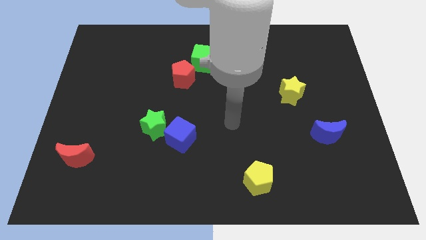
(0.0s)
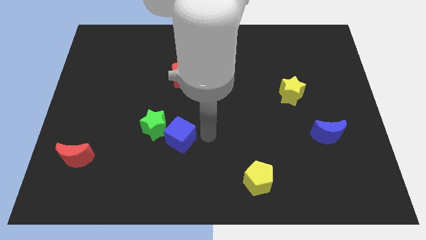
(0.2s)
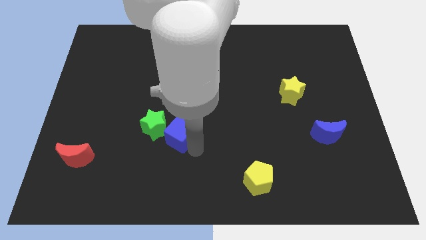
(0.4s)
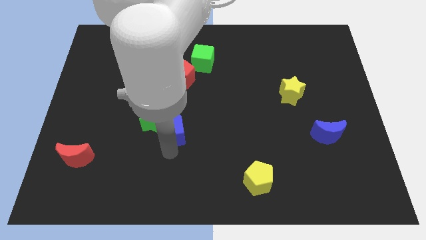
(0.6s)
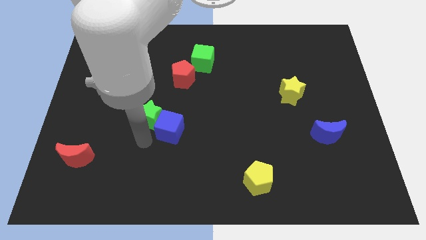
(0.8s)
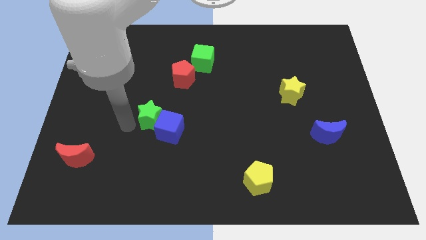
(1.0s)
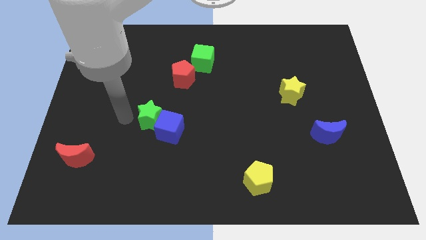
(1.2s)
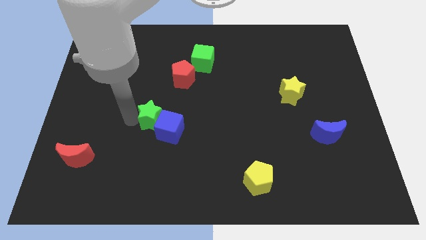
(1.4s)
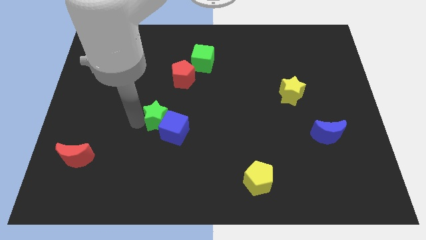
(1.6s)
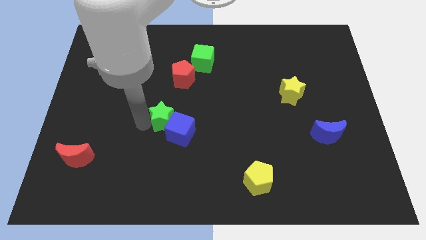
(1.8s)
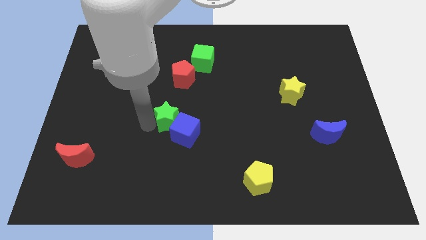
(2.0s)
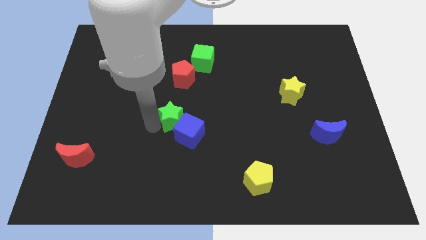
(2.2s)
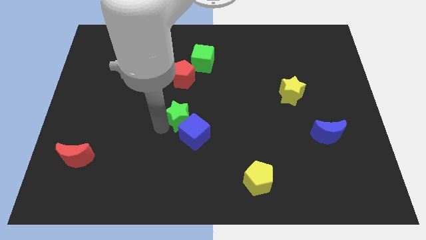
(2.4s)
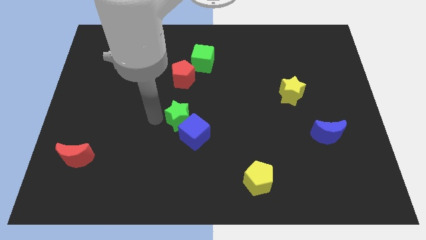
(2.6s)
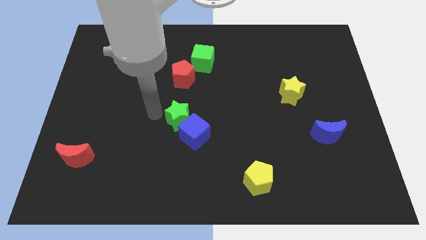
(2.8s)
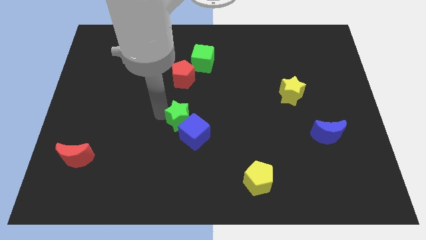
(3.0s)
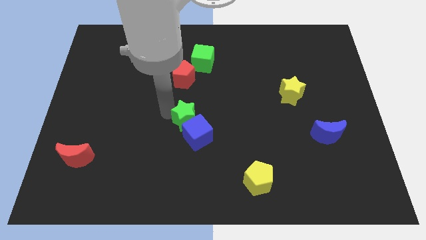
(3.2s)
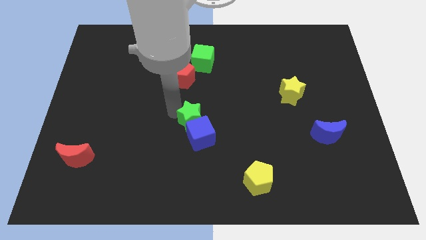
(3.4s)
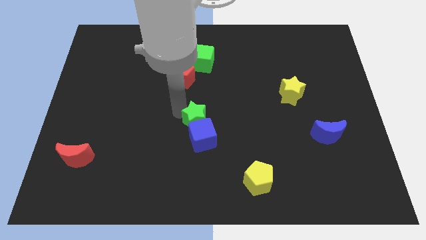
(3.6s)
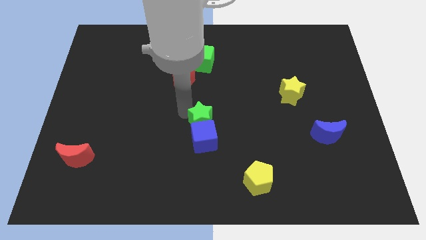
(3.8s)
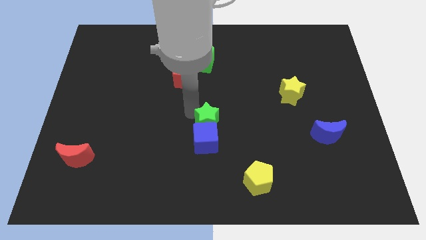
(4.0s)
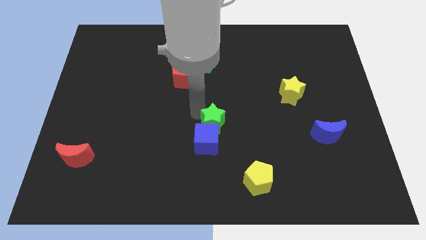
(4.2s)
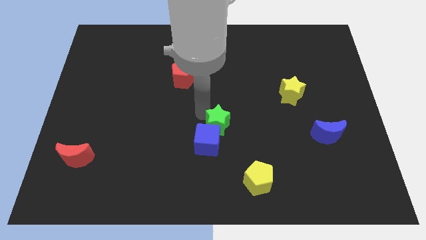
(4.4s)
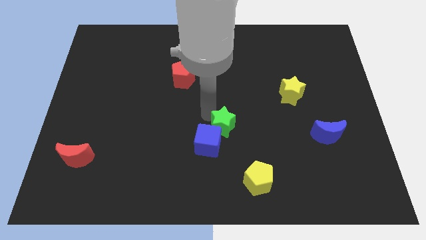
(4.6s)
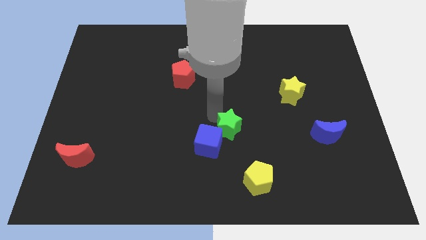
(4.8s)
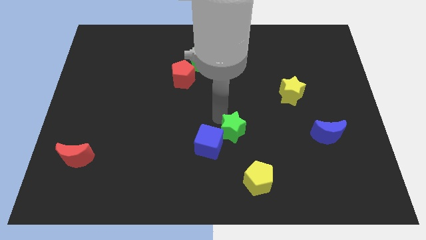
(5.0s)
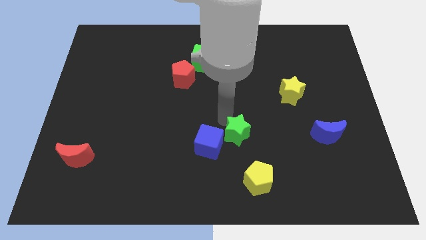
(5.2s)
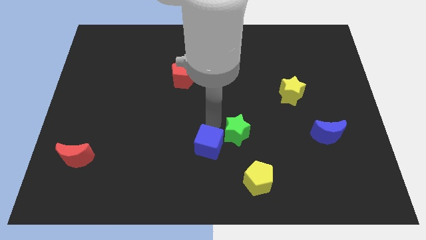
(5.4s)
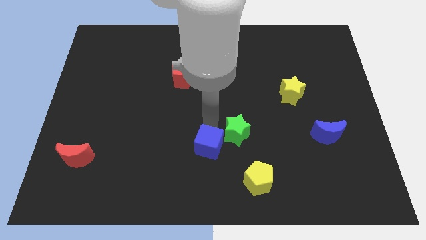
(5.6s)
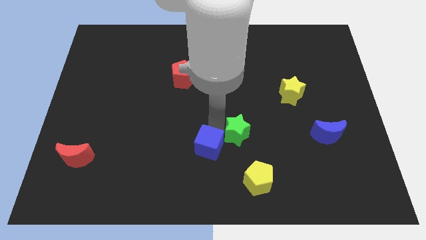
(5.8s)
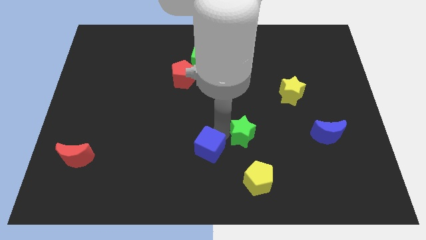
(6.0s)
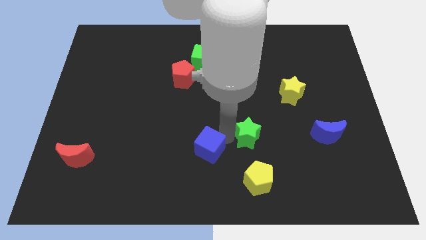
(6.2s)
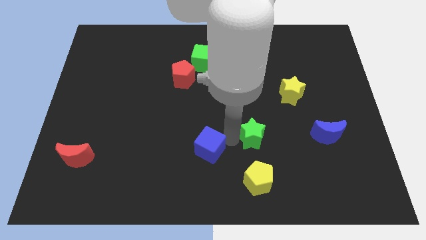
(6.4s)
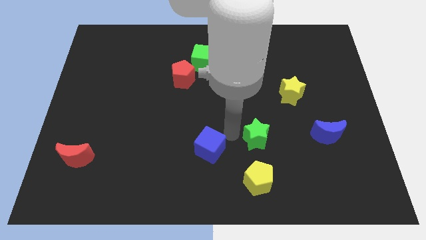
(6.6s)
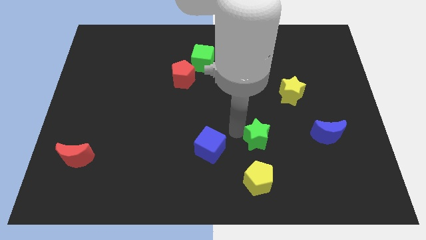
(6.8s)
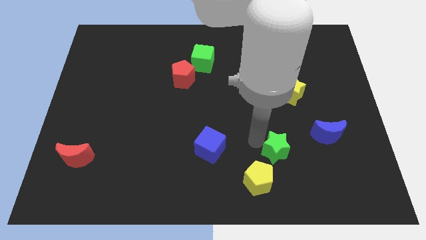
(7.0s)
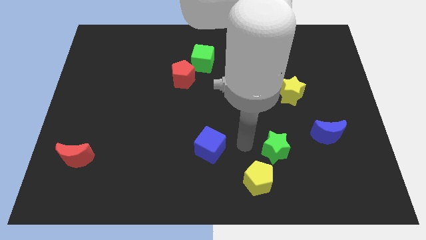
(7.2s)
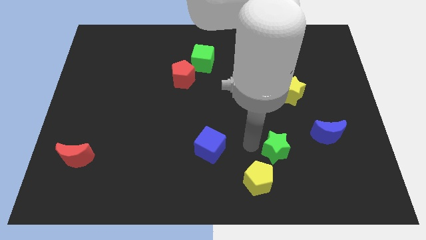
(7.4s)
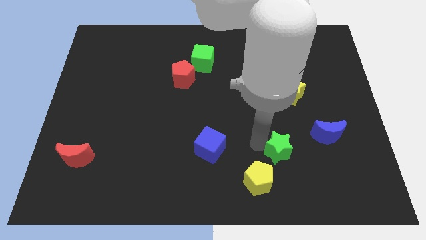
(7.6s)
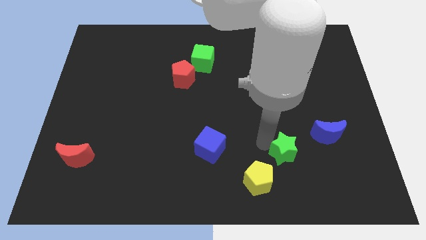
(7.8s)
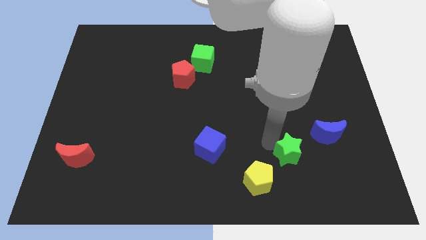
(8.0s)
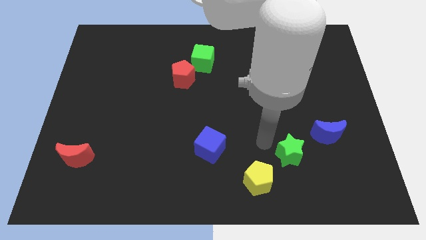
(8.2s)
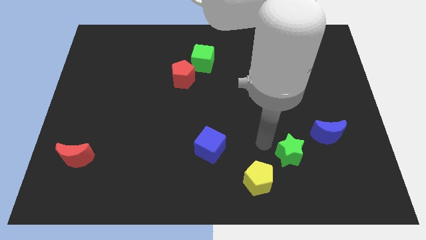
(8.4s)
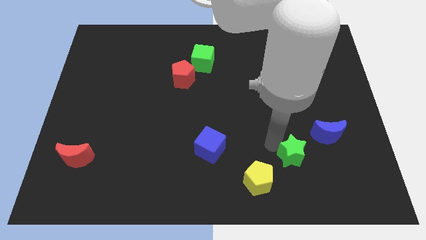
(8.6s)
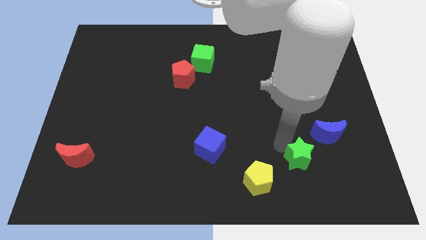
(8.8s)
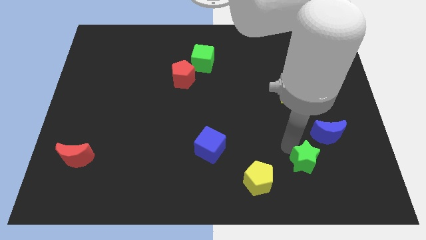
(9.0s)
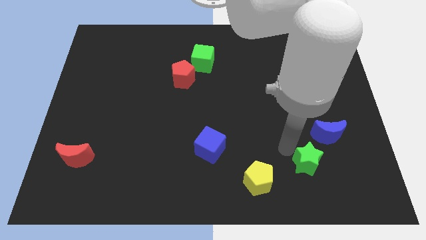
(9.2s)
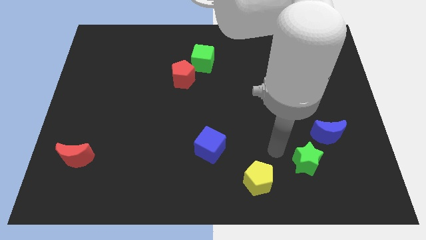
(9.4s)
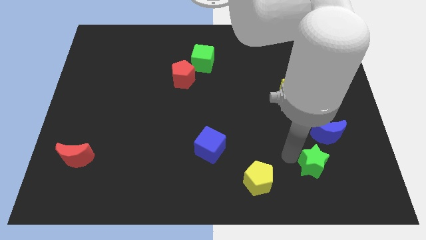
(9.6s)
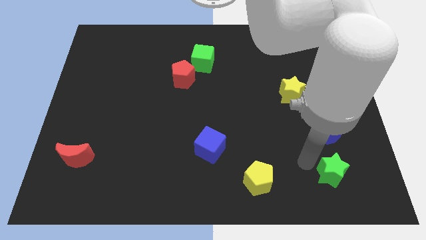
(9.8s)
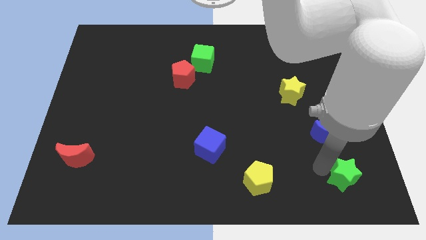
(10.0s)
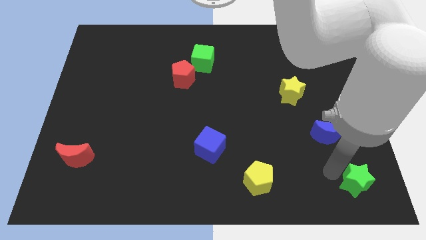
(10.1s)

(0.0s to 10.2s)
move the green star to the bottom right corner

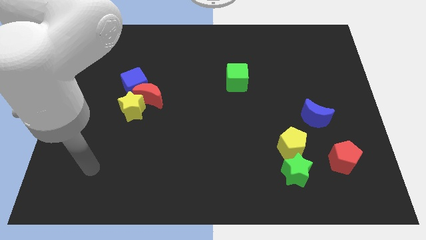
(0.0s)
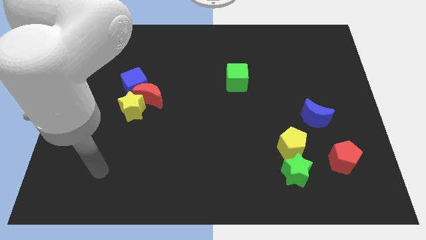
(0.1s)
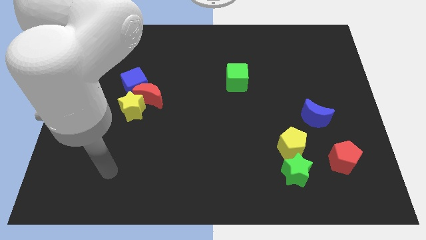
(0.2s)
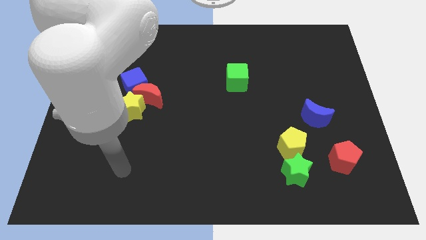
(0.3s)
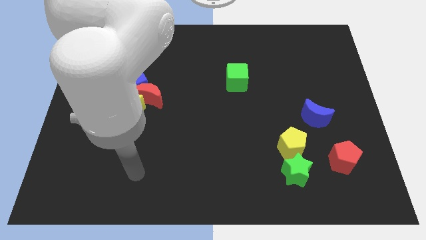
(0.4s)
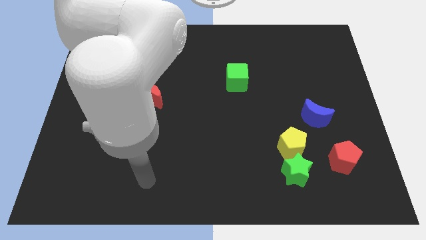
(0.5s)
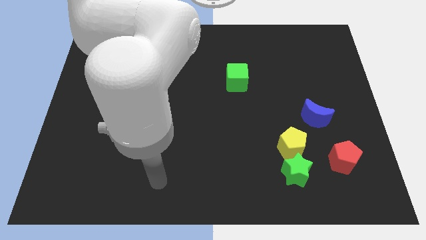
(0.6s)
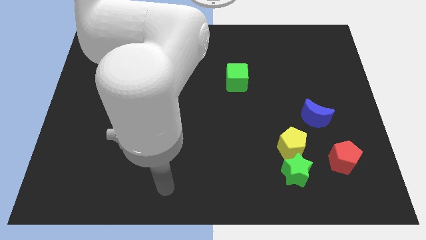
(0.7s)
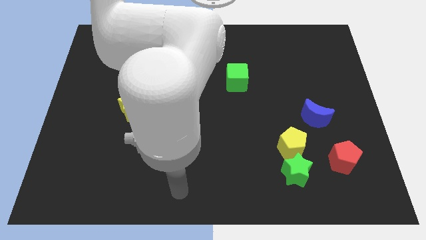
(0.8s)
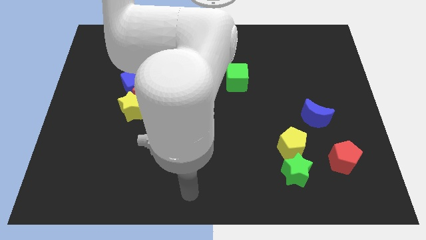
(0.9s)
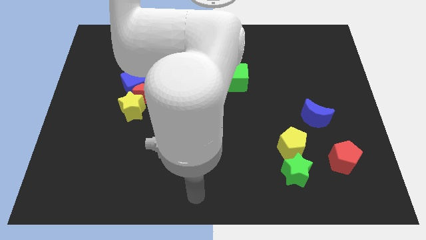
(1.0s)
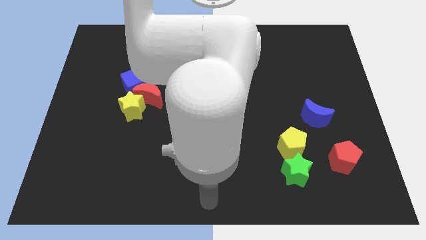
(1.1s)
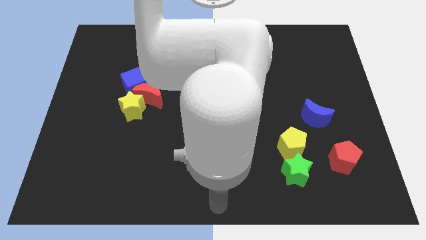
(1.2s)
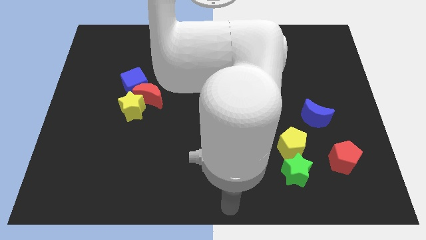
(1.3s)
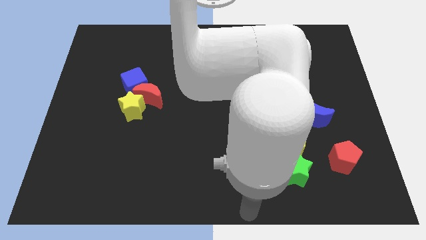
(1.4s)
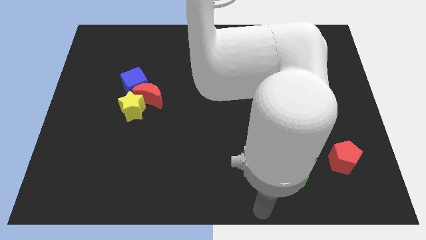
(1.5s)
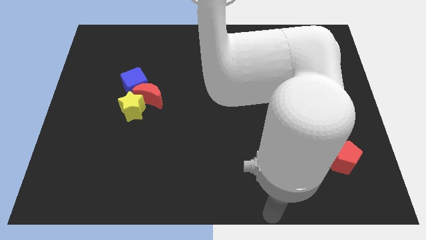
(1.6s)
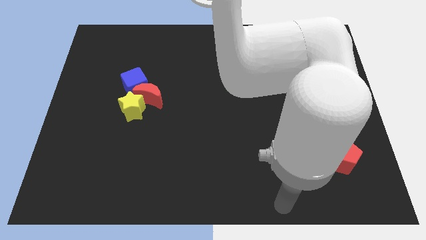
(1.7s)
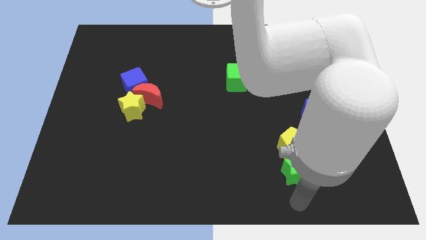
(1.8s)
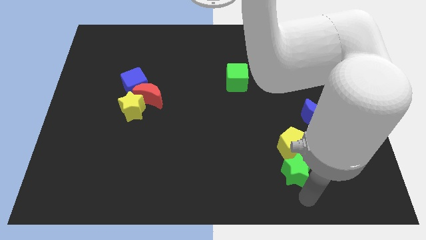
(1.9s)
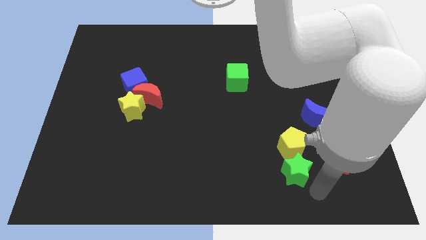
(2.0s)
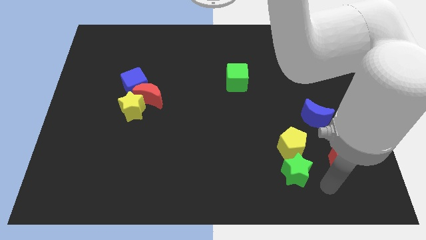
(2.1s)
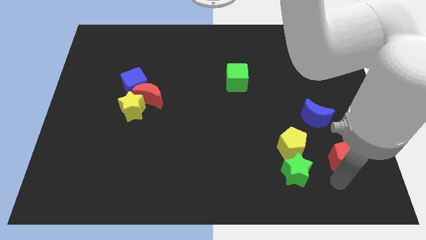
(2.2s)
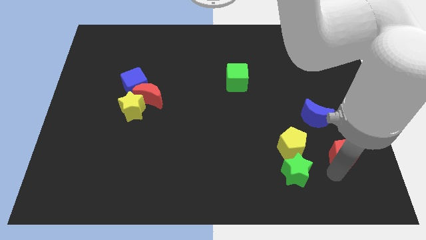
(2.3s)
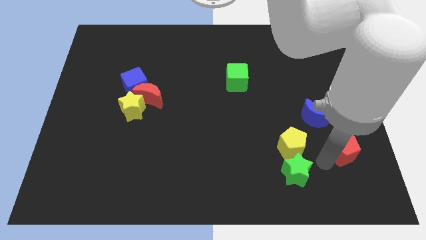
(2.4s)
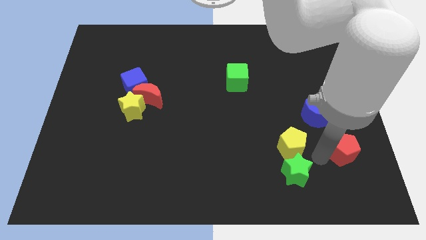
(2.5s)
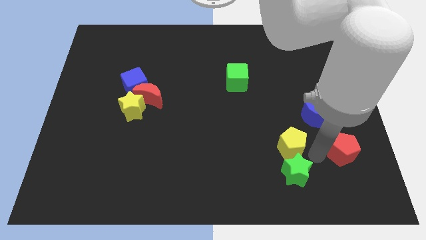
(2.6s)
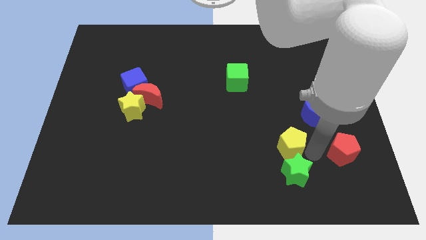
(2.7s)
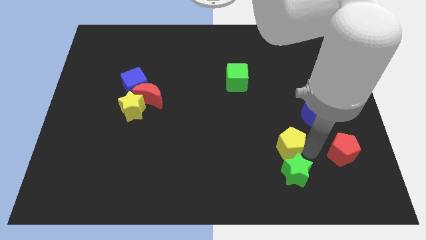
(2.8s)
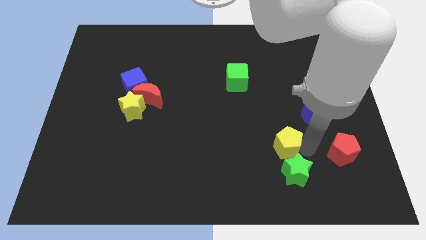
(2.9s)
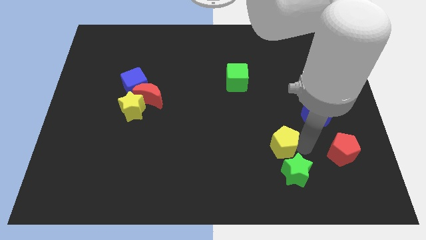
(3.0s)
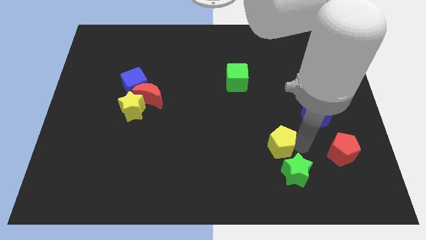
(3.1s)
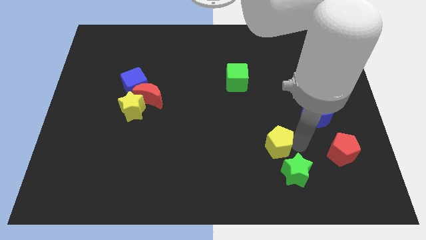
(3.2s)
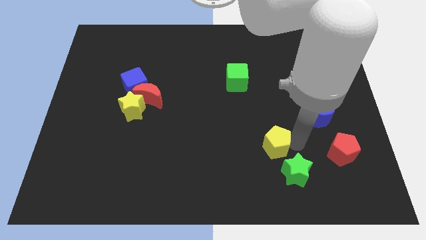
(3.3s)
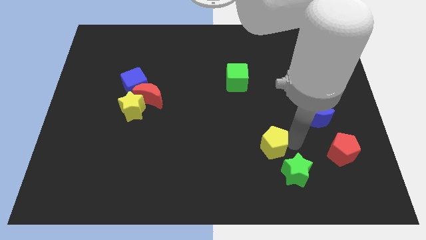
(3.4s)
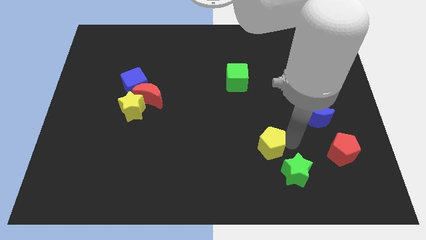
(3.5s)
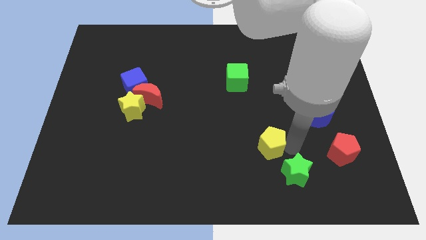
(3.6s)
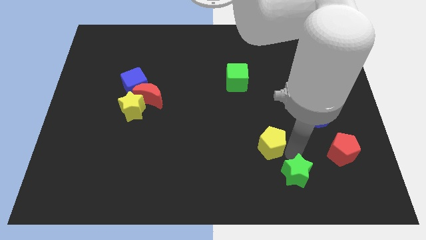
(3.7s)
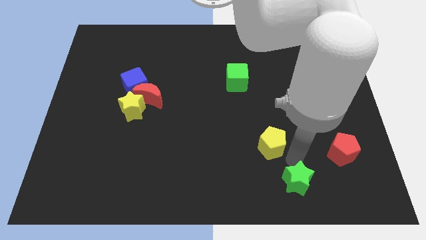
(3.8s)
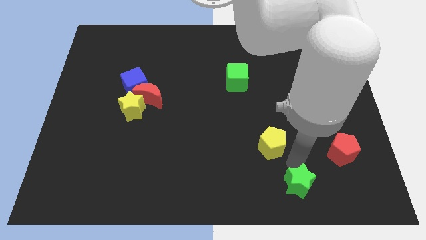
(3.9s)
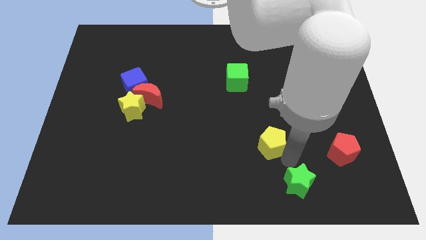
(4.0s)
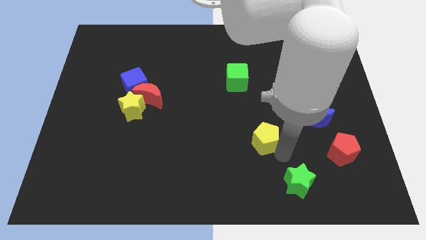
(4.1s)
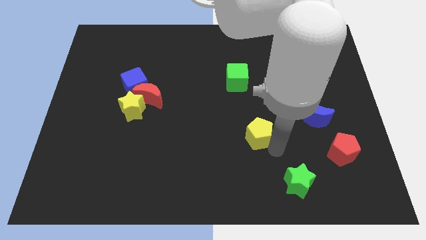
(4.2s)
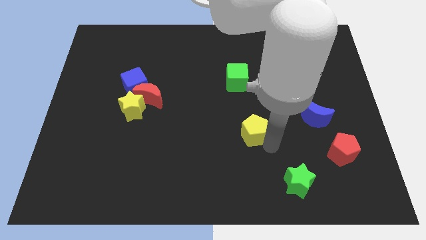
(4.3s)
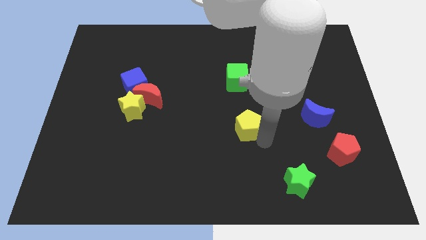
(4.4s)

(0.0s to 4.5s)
move the yellow pentagon to the center of the board
